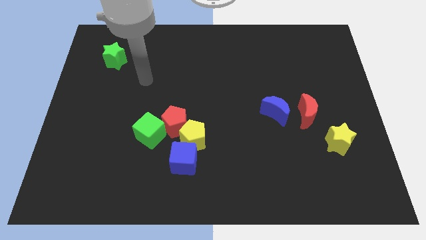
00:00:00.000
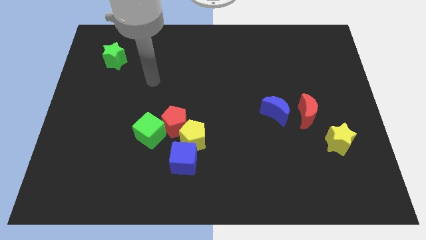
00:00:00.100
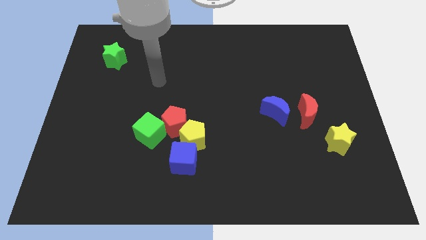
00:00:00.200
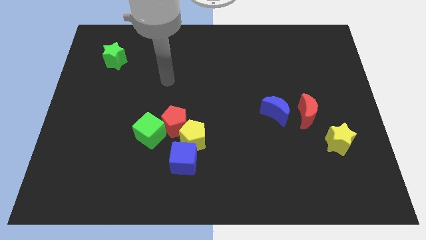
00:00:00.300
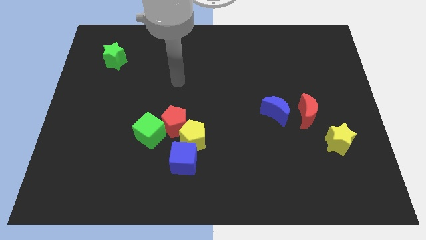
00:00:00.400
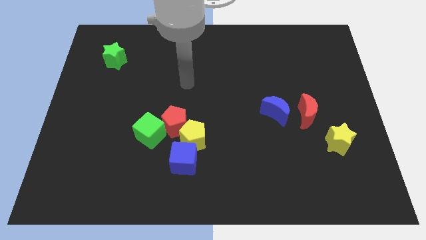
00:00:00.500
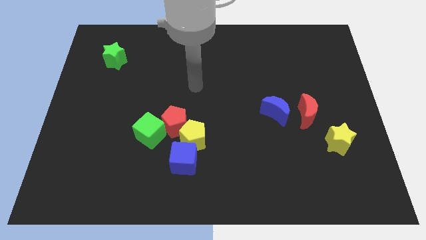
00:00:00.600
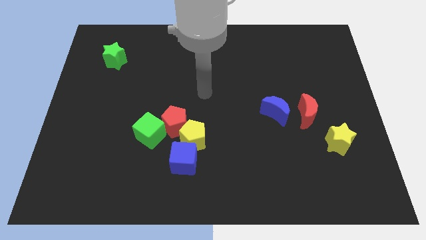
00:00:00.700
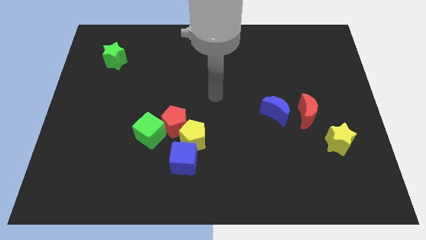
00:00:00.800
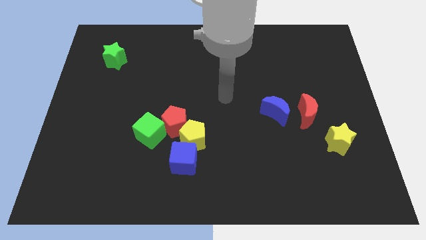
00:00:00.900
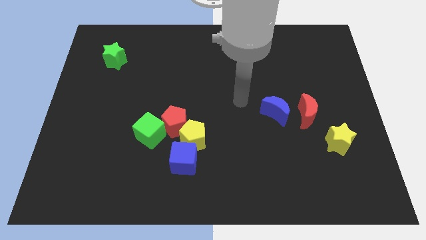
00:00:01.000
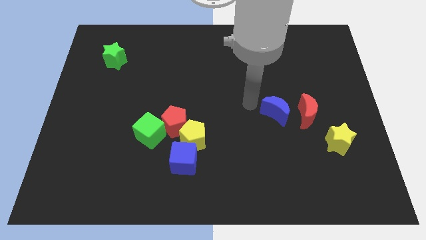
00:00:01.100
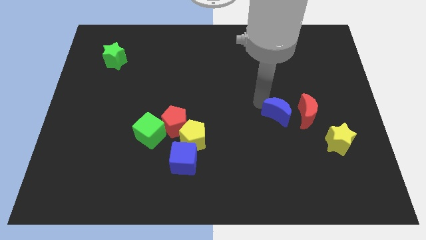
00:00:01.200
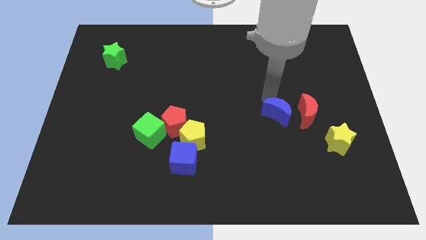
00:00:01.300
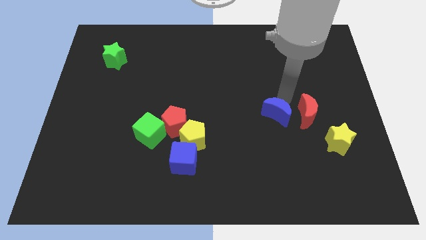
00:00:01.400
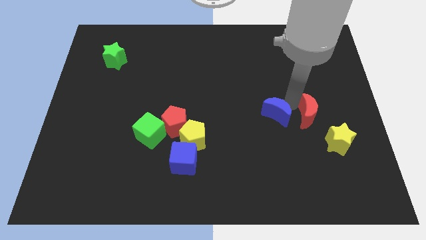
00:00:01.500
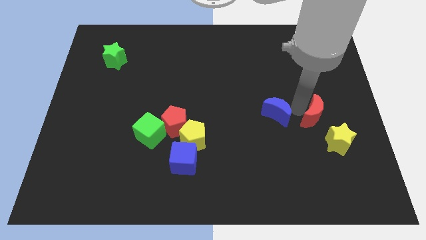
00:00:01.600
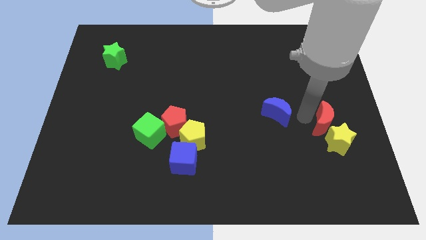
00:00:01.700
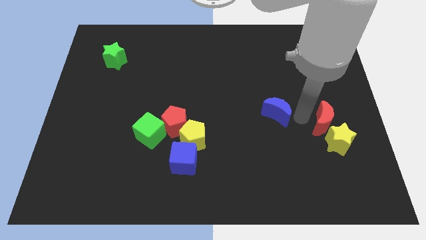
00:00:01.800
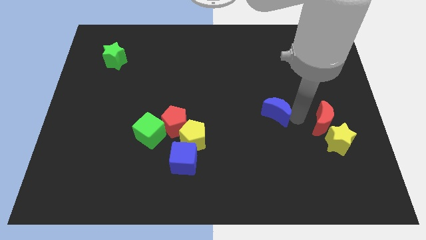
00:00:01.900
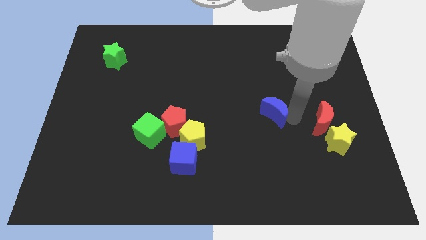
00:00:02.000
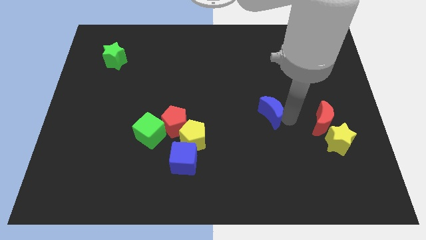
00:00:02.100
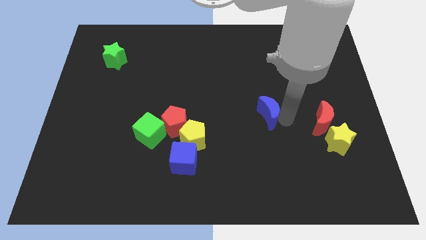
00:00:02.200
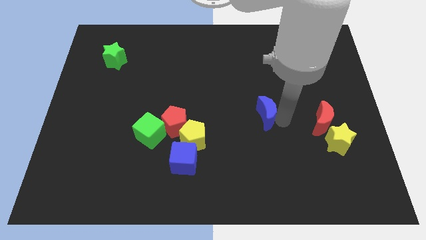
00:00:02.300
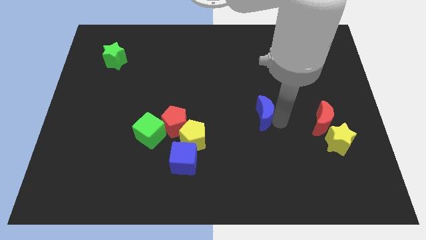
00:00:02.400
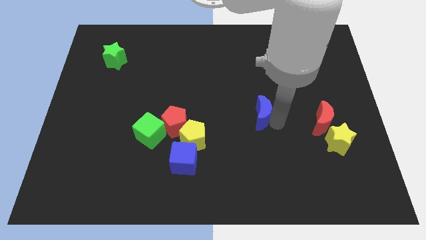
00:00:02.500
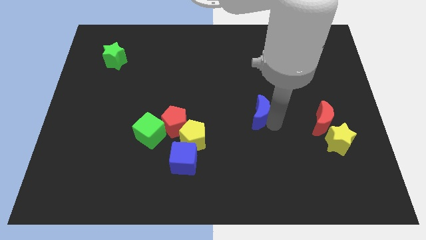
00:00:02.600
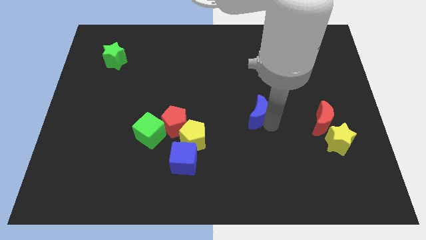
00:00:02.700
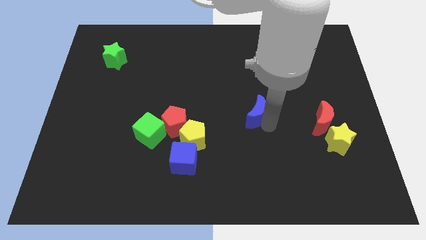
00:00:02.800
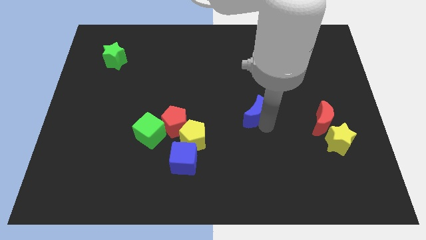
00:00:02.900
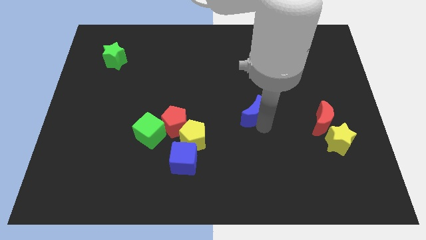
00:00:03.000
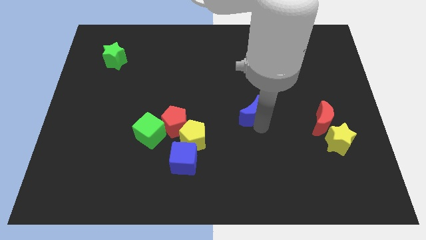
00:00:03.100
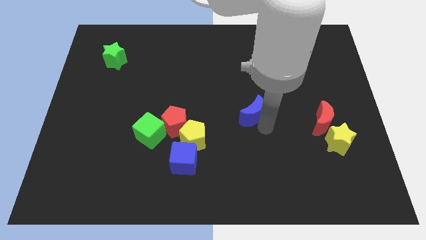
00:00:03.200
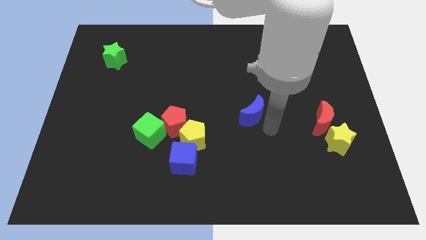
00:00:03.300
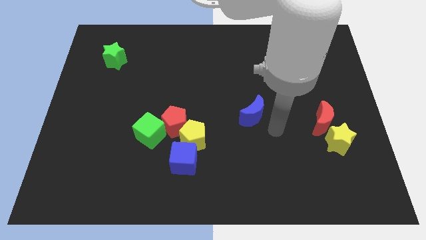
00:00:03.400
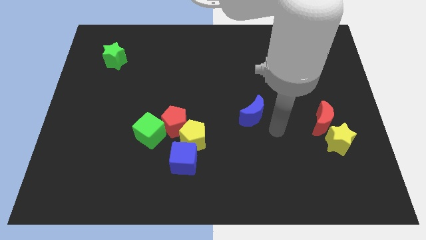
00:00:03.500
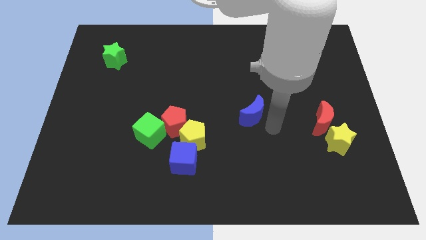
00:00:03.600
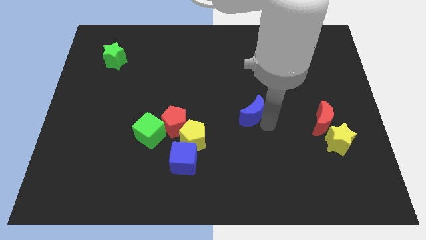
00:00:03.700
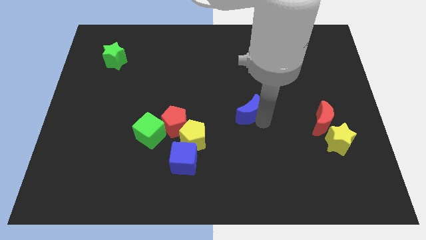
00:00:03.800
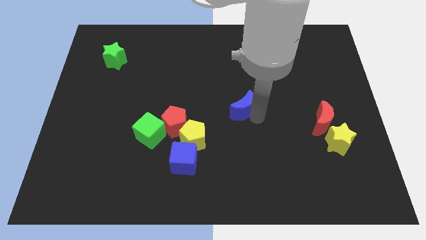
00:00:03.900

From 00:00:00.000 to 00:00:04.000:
slightly push the blue moon to the left

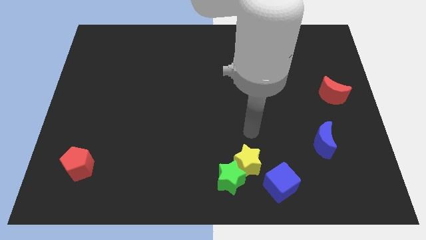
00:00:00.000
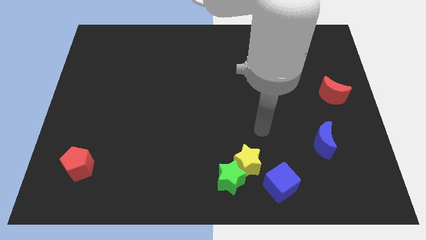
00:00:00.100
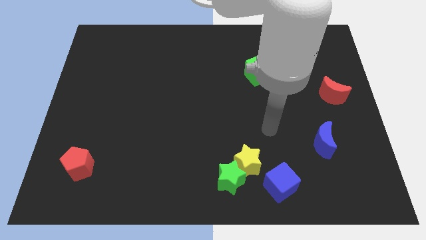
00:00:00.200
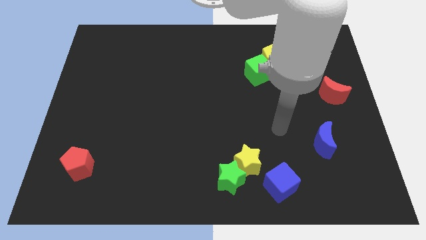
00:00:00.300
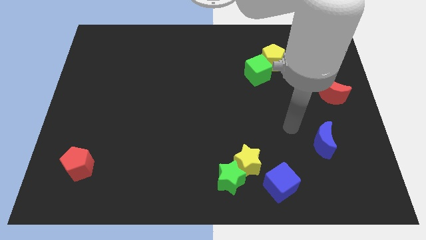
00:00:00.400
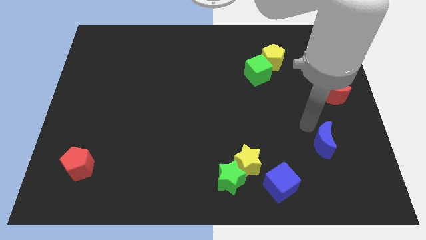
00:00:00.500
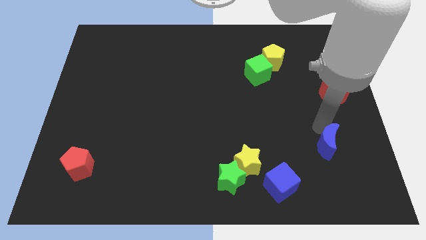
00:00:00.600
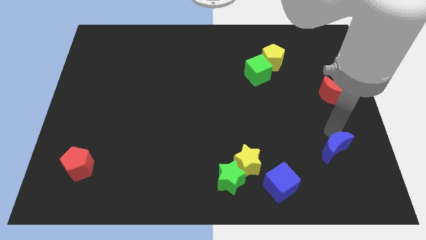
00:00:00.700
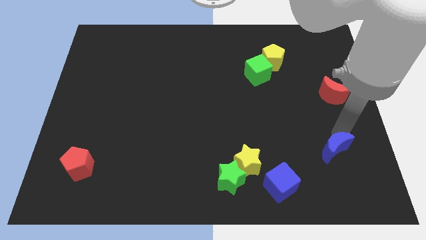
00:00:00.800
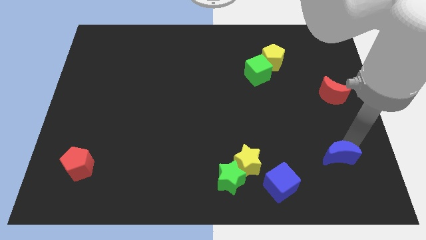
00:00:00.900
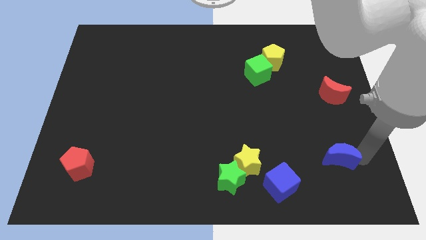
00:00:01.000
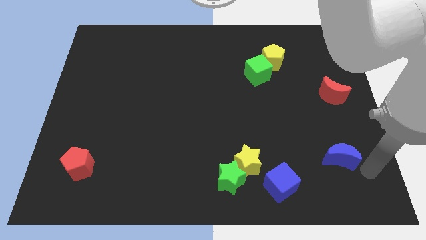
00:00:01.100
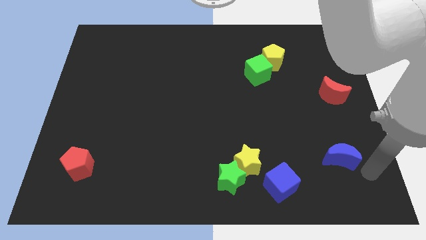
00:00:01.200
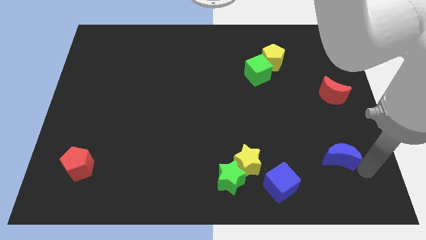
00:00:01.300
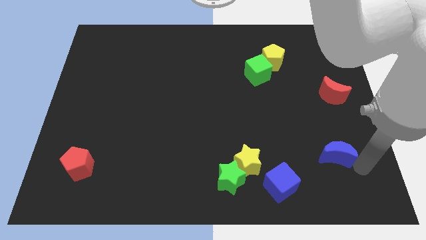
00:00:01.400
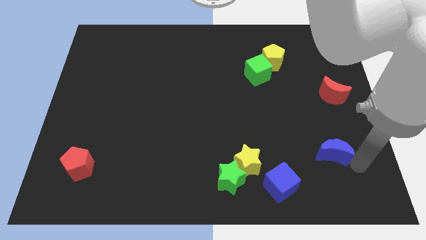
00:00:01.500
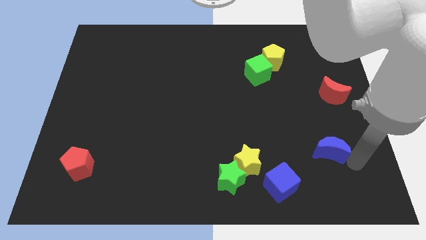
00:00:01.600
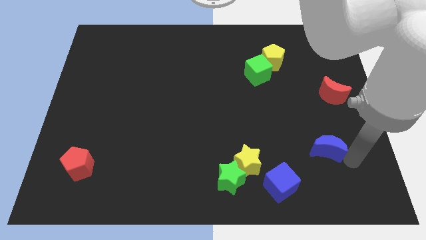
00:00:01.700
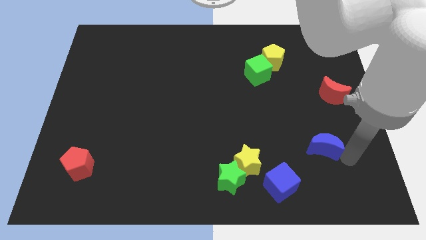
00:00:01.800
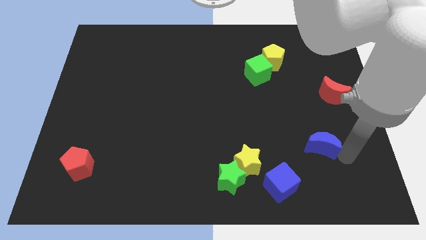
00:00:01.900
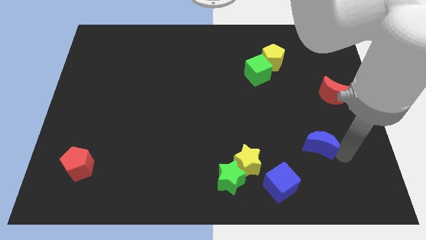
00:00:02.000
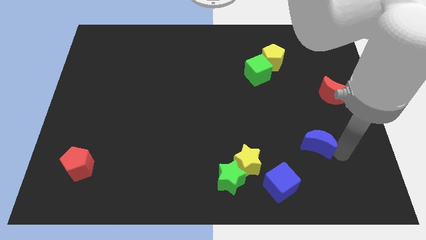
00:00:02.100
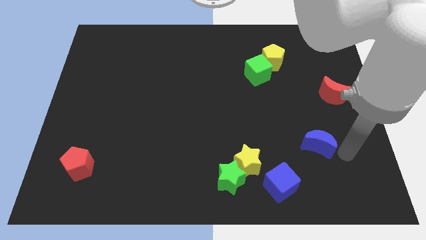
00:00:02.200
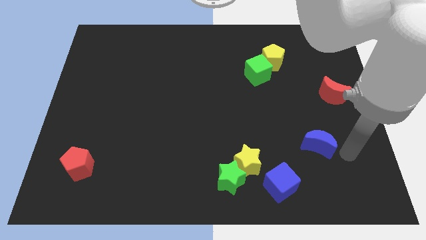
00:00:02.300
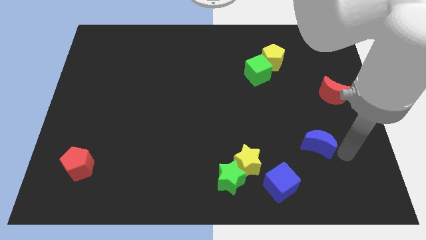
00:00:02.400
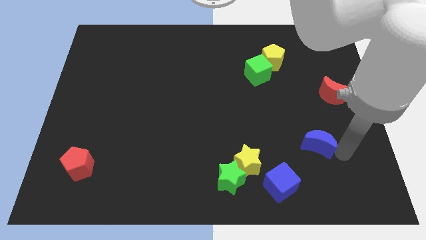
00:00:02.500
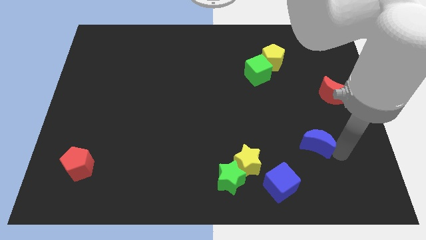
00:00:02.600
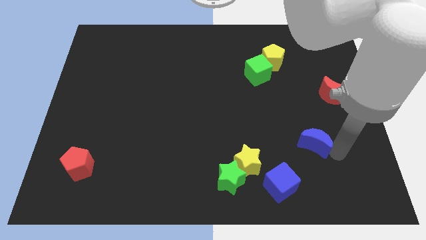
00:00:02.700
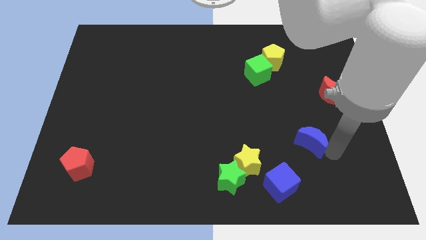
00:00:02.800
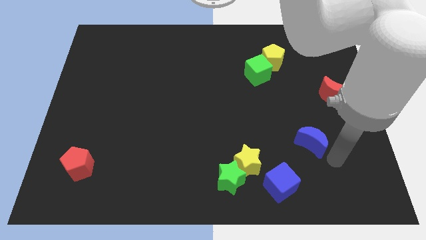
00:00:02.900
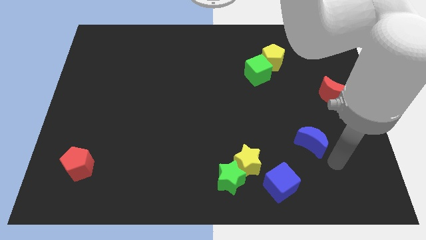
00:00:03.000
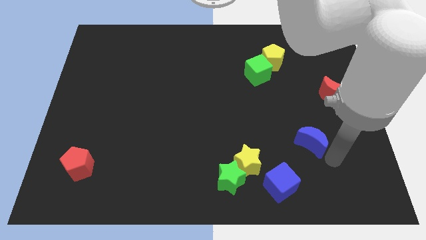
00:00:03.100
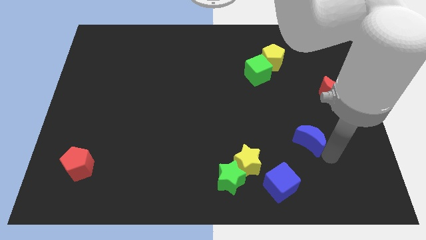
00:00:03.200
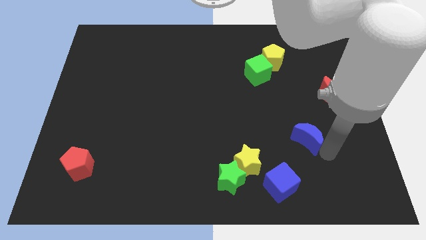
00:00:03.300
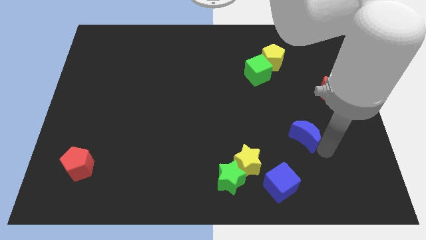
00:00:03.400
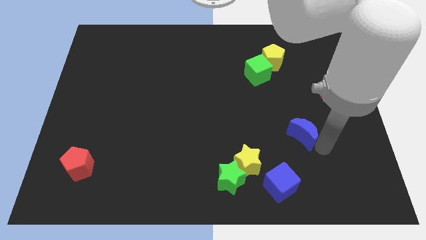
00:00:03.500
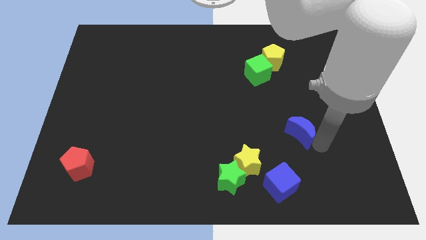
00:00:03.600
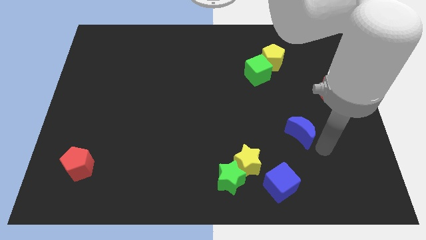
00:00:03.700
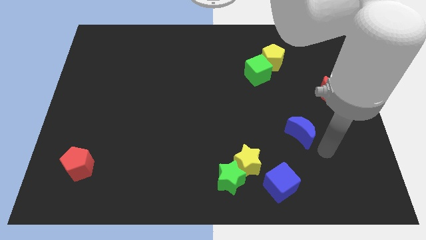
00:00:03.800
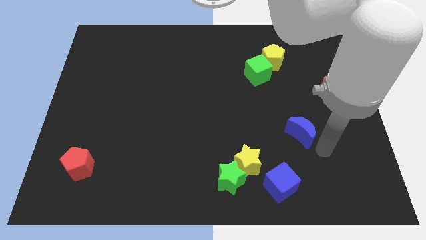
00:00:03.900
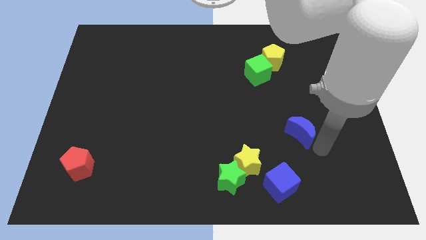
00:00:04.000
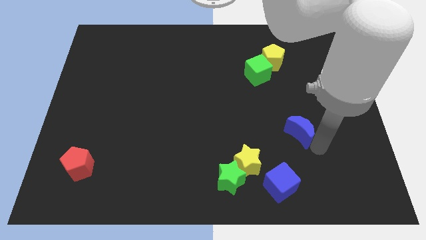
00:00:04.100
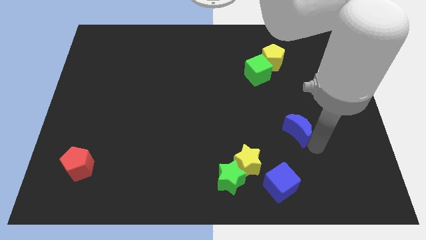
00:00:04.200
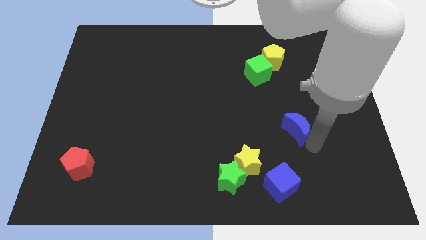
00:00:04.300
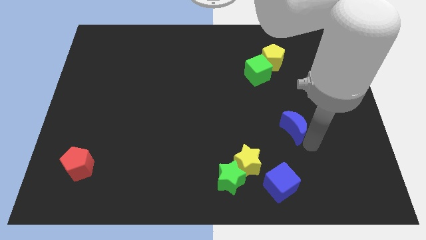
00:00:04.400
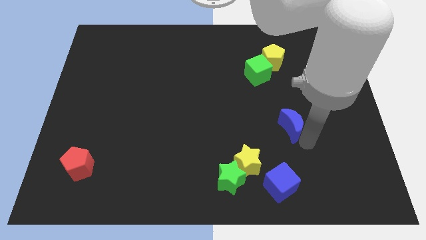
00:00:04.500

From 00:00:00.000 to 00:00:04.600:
push the blue moon up and to the left diagonally a little bit
